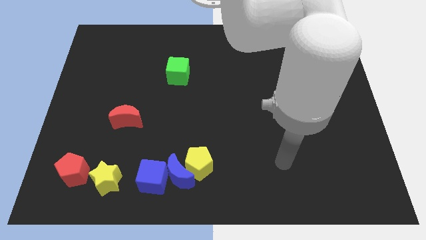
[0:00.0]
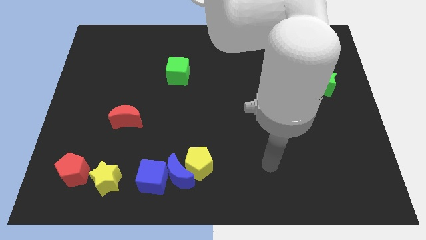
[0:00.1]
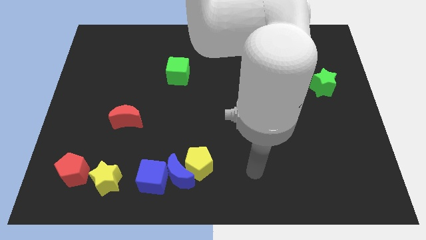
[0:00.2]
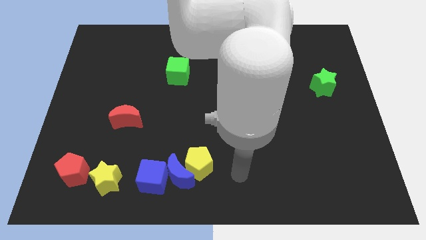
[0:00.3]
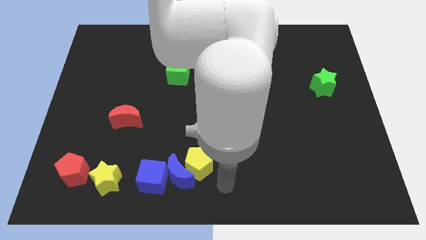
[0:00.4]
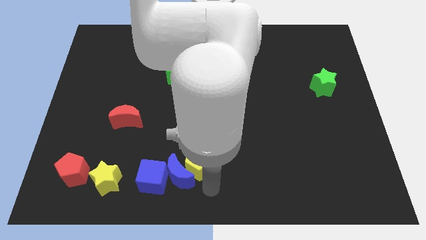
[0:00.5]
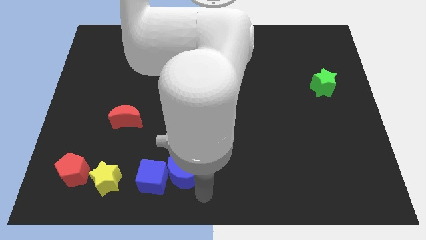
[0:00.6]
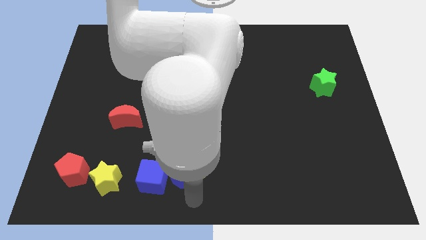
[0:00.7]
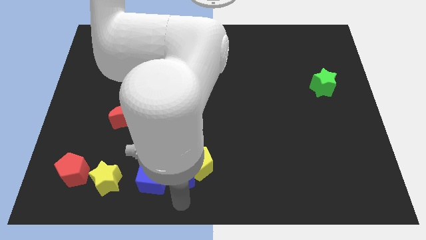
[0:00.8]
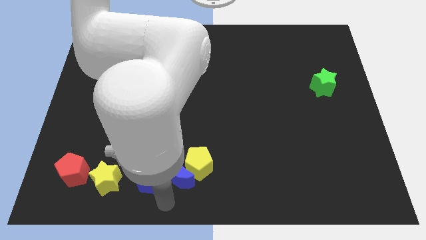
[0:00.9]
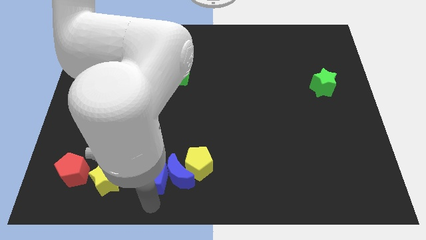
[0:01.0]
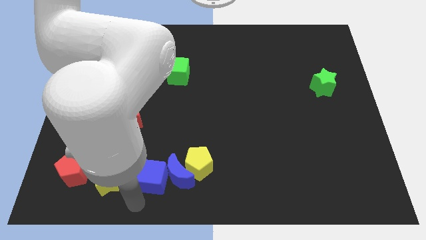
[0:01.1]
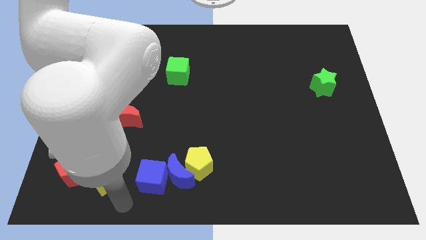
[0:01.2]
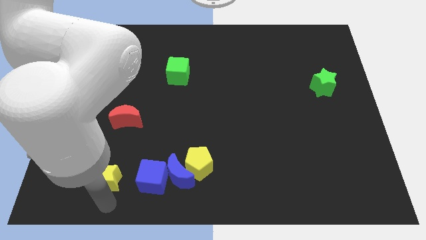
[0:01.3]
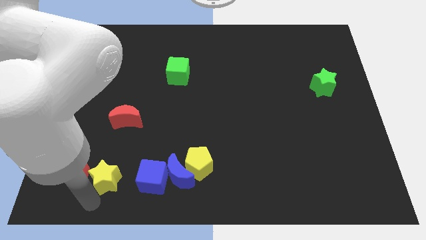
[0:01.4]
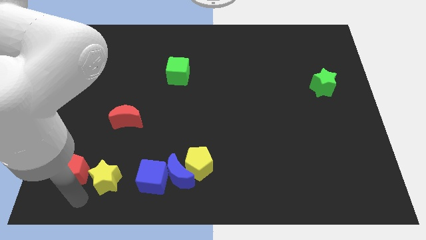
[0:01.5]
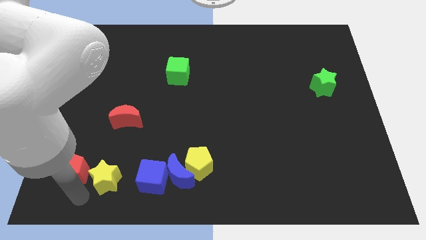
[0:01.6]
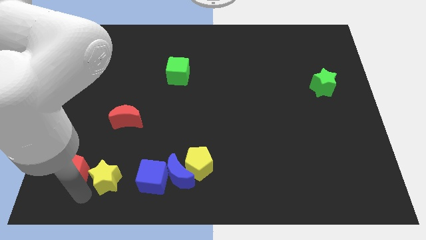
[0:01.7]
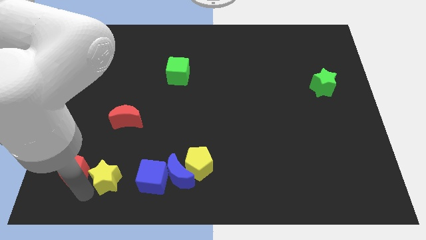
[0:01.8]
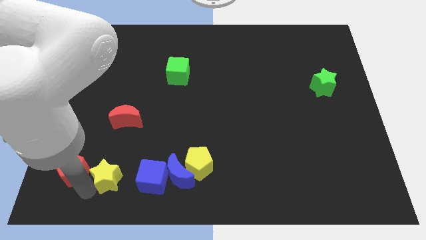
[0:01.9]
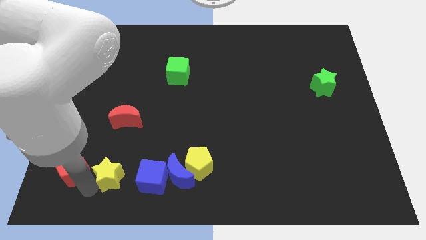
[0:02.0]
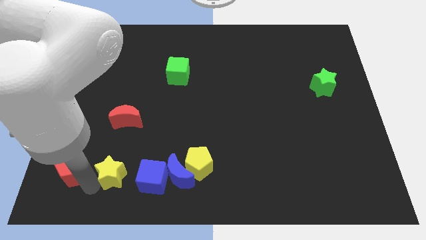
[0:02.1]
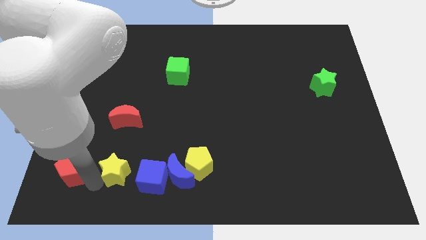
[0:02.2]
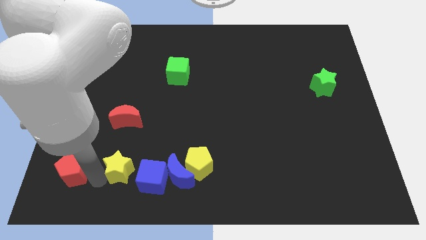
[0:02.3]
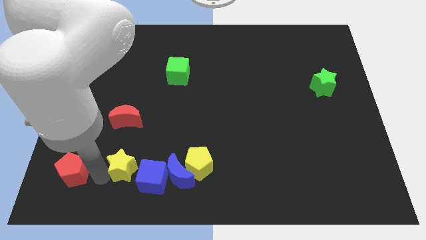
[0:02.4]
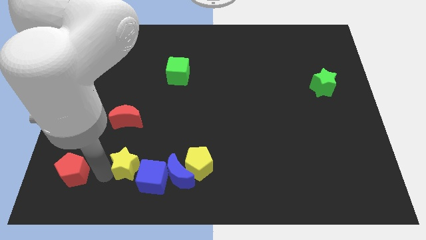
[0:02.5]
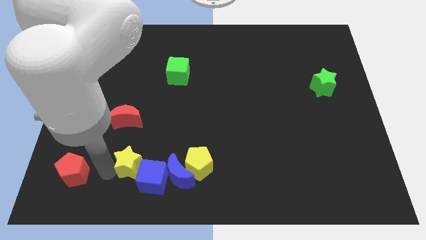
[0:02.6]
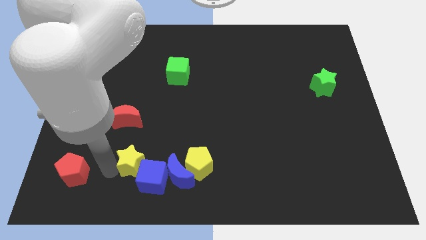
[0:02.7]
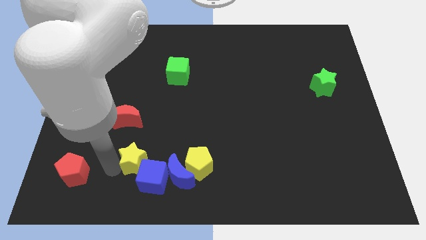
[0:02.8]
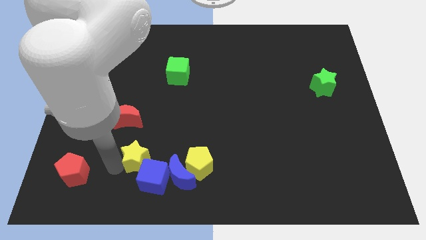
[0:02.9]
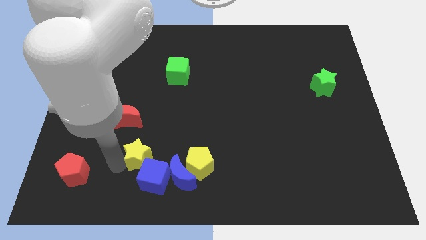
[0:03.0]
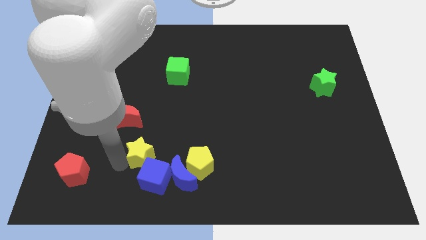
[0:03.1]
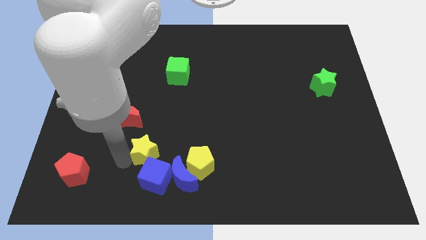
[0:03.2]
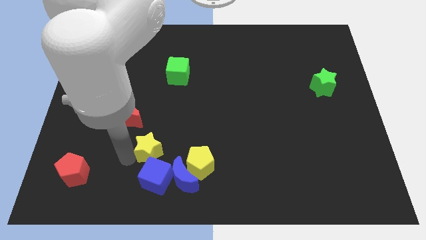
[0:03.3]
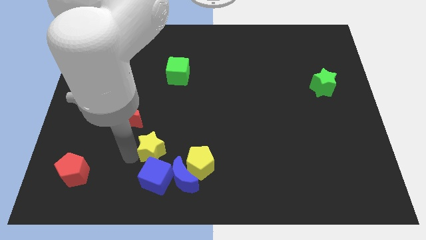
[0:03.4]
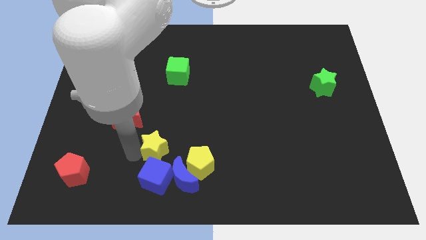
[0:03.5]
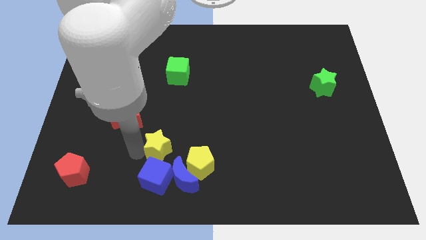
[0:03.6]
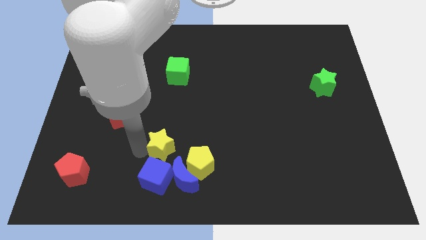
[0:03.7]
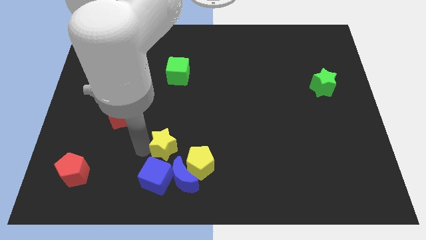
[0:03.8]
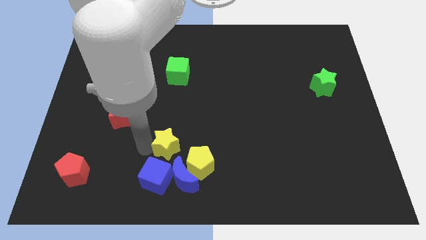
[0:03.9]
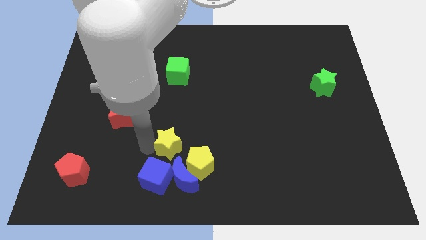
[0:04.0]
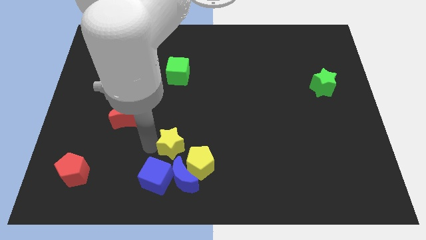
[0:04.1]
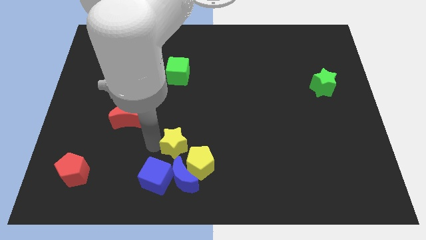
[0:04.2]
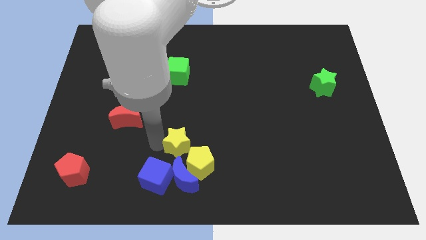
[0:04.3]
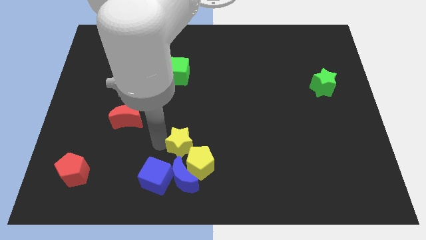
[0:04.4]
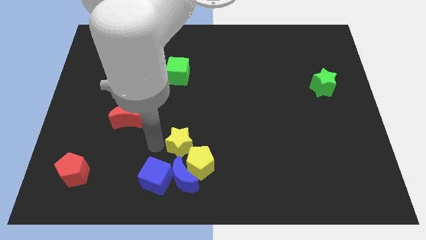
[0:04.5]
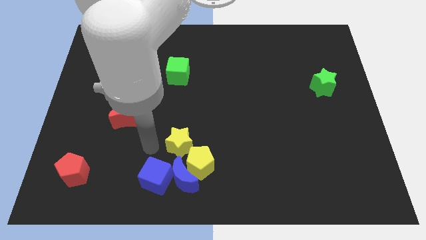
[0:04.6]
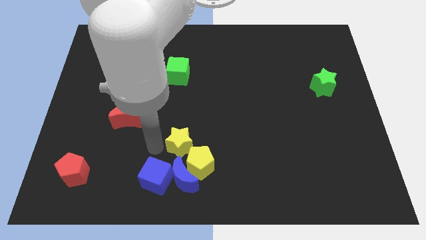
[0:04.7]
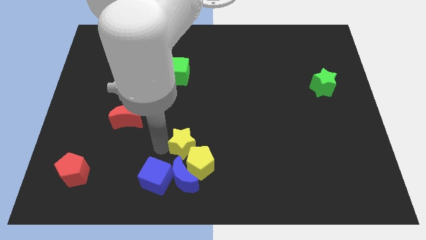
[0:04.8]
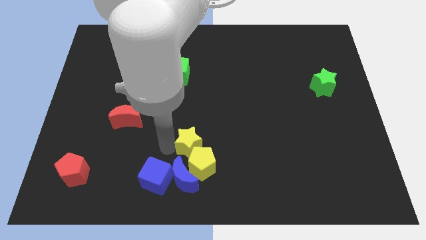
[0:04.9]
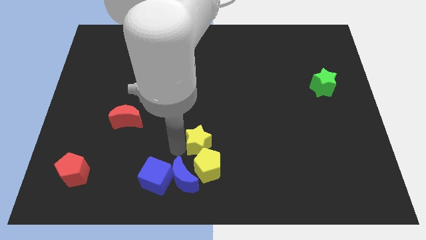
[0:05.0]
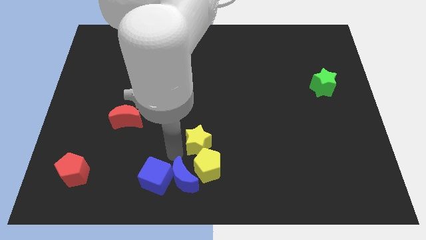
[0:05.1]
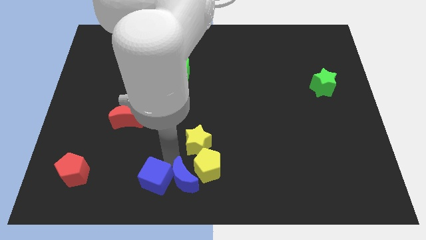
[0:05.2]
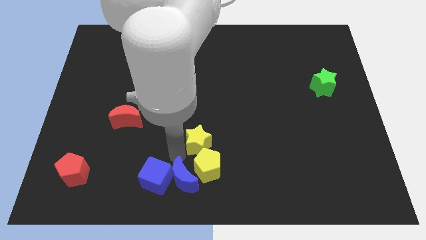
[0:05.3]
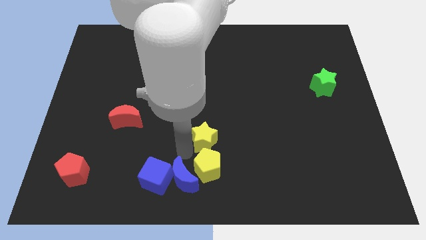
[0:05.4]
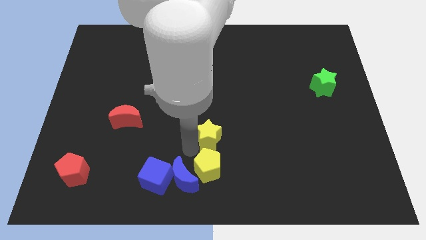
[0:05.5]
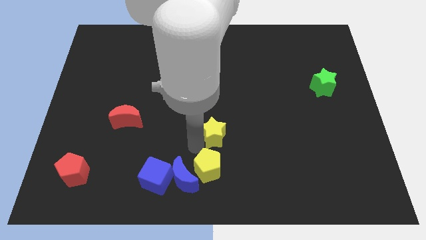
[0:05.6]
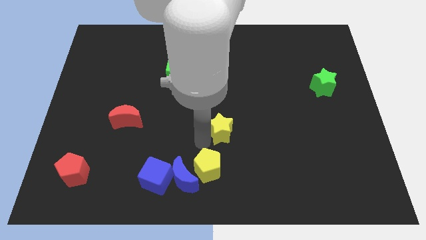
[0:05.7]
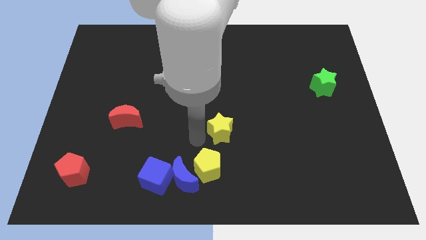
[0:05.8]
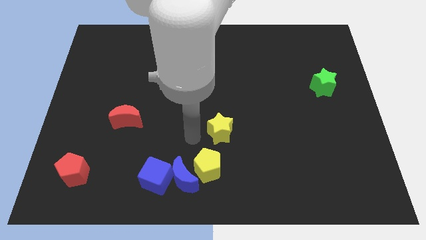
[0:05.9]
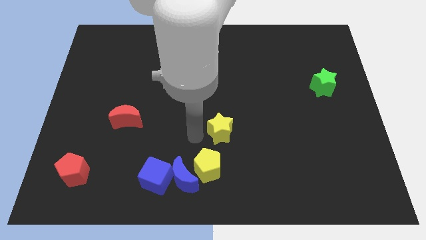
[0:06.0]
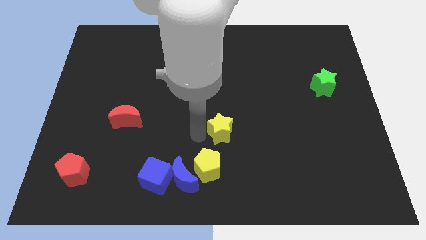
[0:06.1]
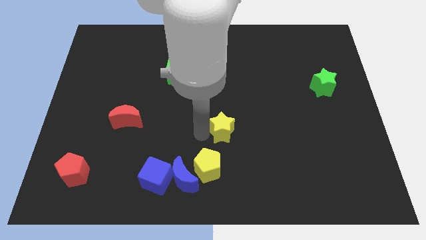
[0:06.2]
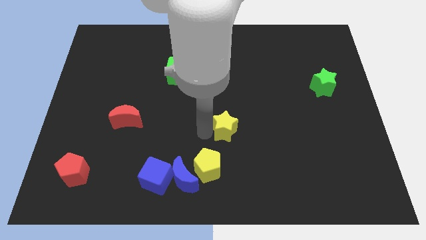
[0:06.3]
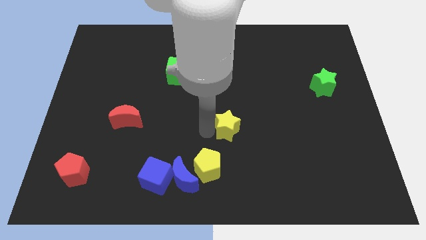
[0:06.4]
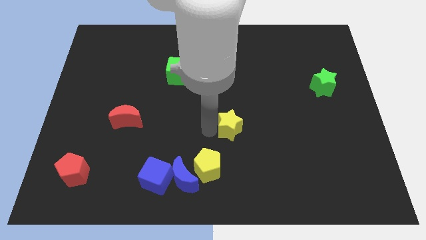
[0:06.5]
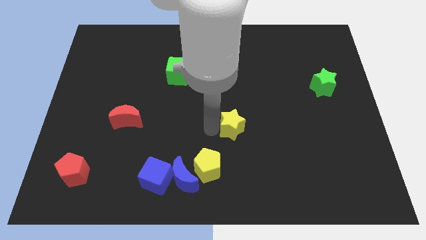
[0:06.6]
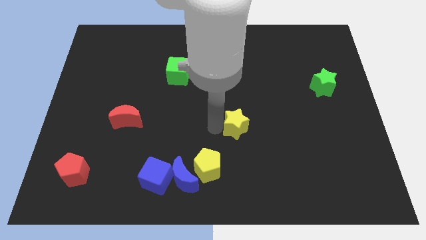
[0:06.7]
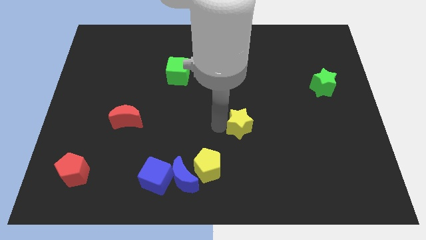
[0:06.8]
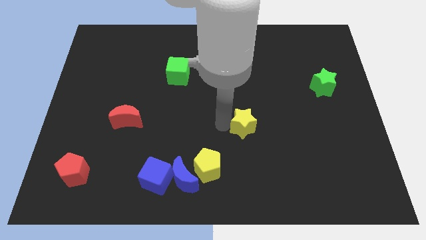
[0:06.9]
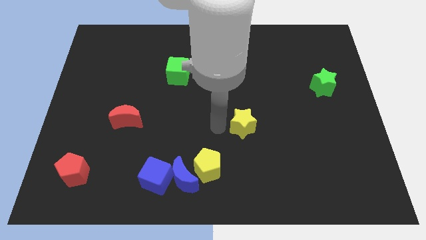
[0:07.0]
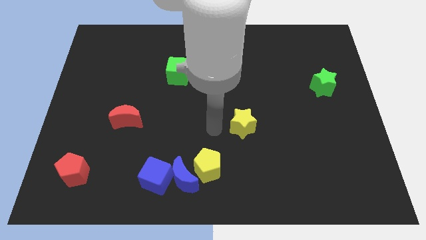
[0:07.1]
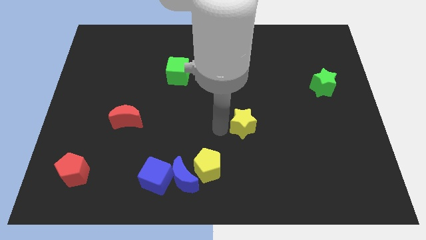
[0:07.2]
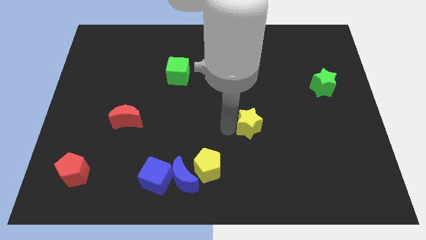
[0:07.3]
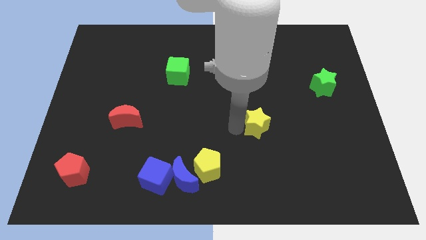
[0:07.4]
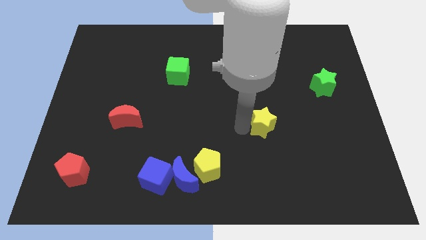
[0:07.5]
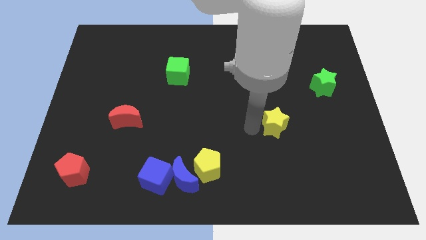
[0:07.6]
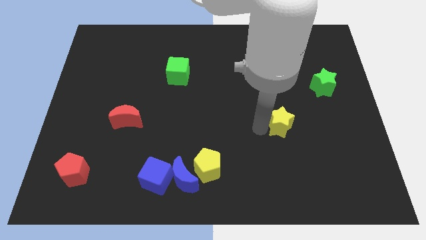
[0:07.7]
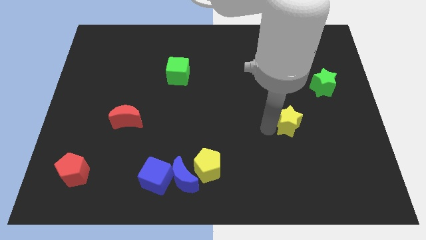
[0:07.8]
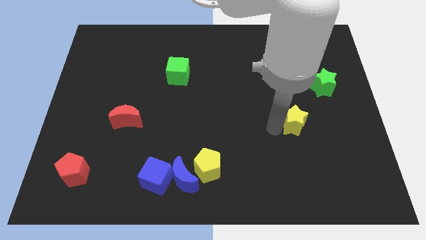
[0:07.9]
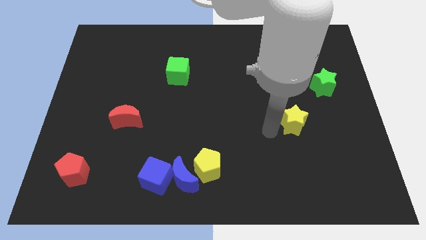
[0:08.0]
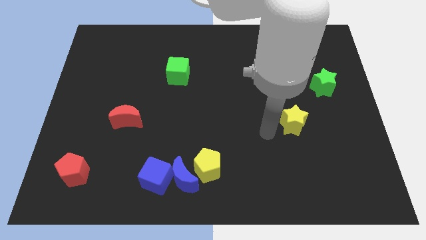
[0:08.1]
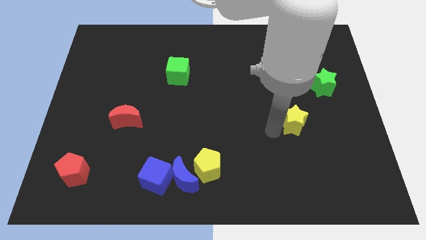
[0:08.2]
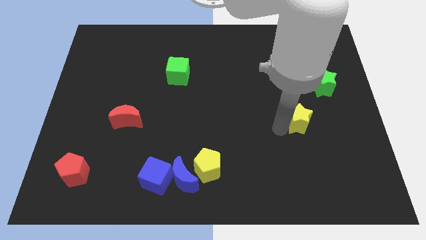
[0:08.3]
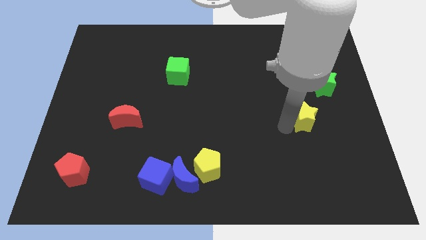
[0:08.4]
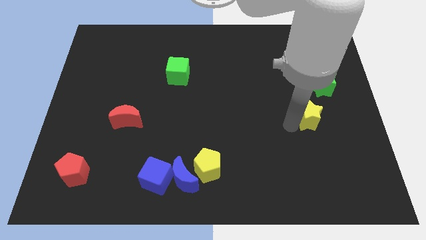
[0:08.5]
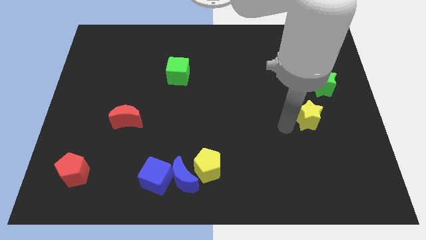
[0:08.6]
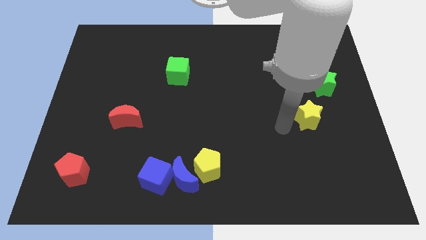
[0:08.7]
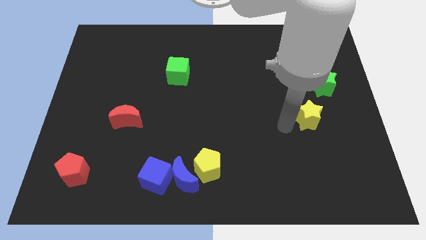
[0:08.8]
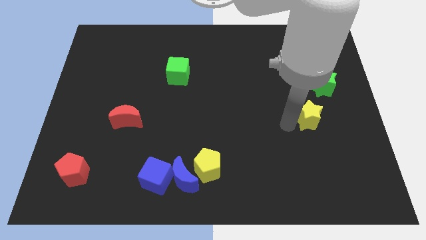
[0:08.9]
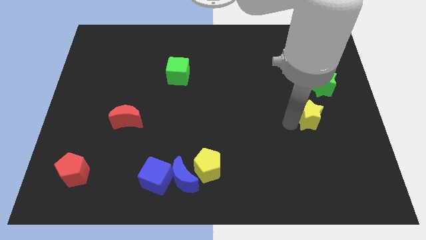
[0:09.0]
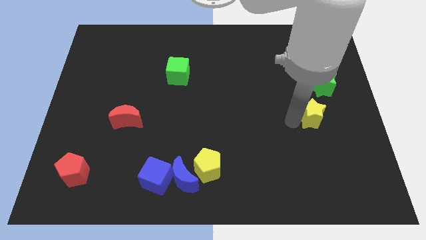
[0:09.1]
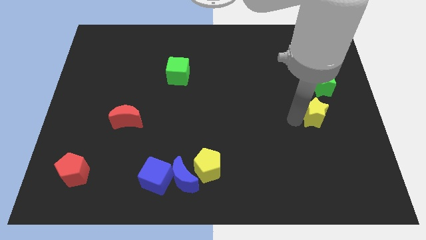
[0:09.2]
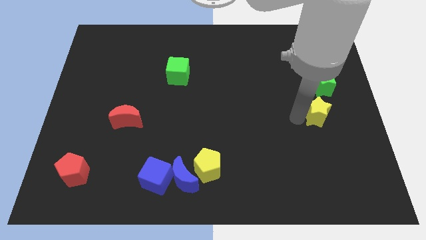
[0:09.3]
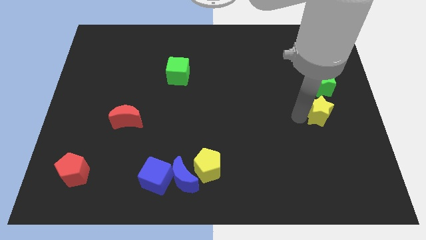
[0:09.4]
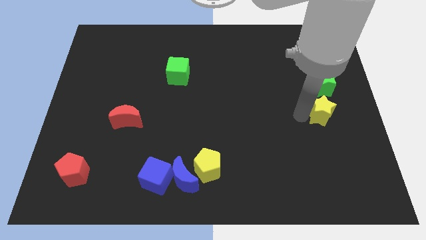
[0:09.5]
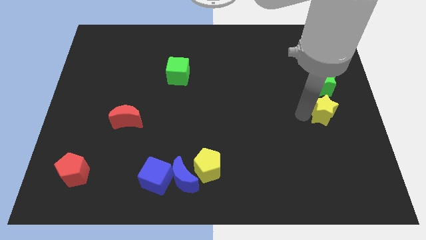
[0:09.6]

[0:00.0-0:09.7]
slide the yellow star to the right side of the board
